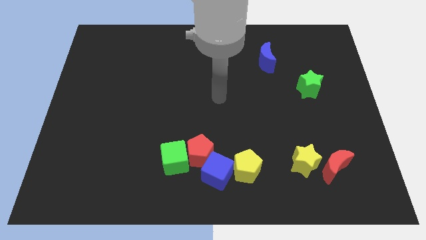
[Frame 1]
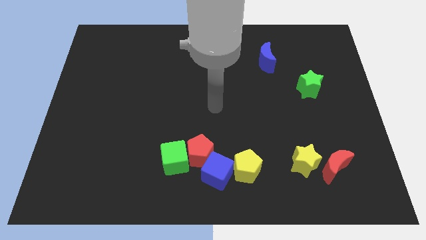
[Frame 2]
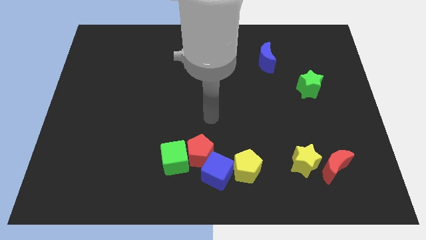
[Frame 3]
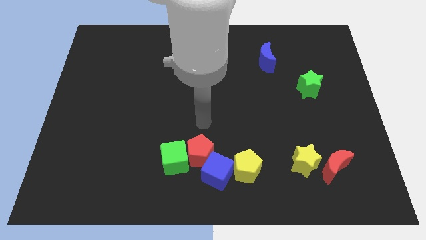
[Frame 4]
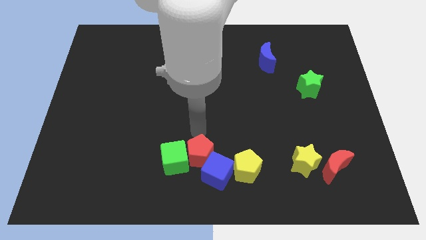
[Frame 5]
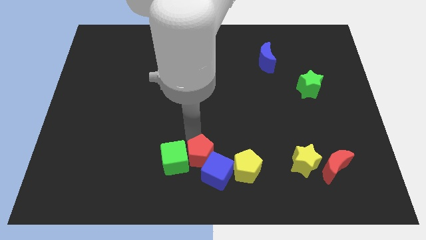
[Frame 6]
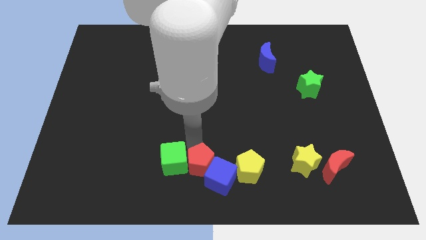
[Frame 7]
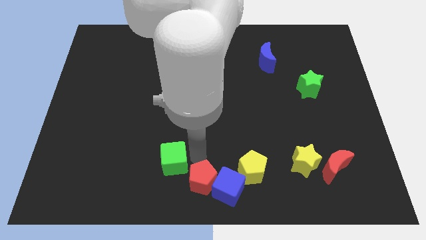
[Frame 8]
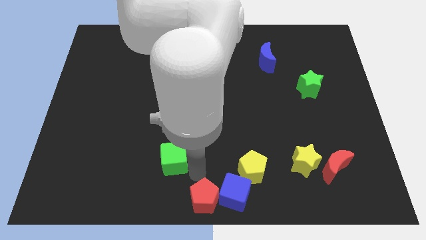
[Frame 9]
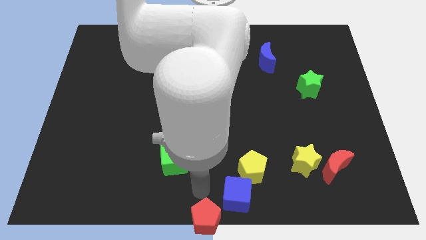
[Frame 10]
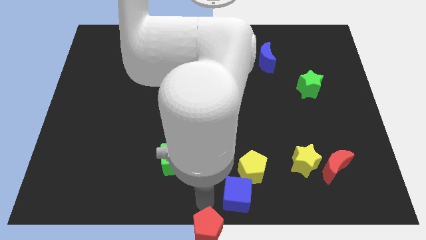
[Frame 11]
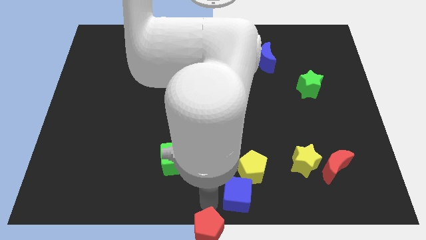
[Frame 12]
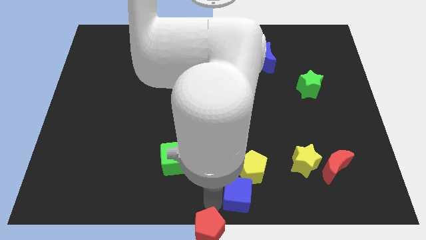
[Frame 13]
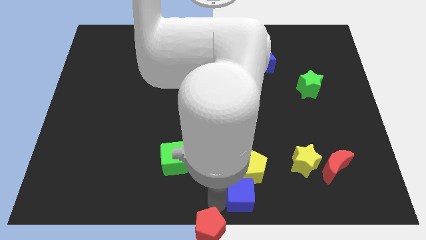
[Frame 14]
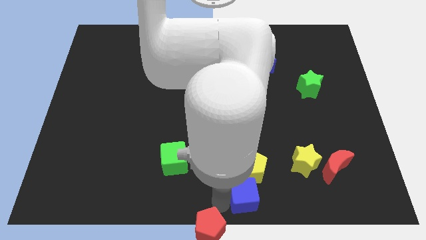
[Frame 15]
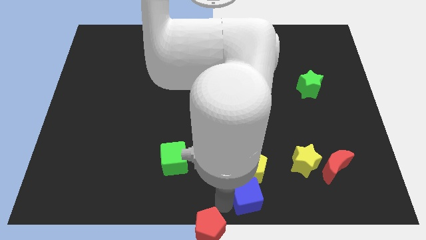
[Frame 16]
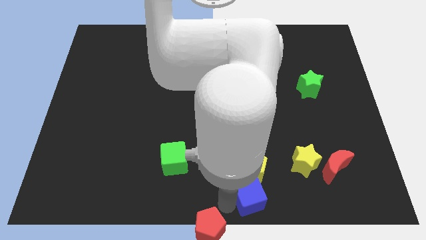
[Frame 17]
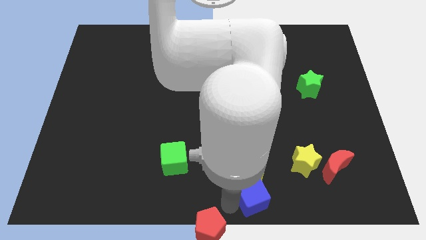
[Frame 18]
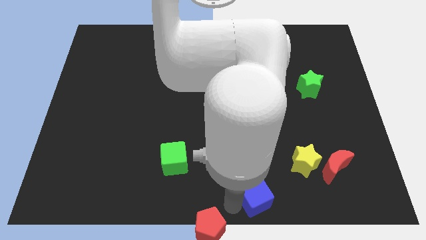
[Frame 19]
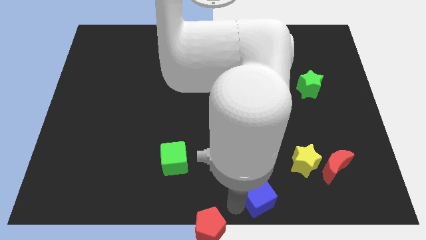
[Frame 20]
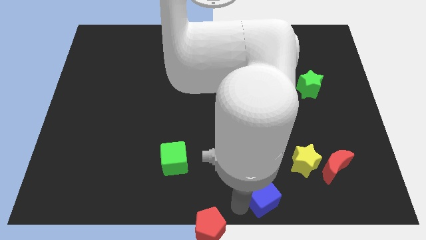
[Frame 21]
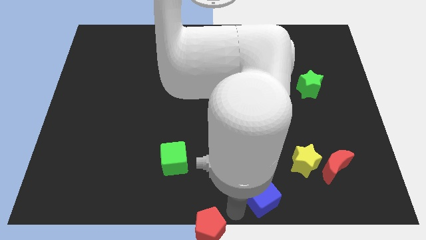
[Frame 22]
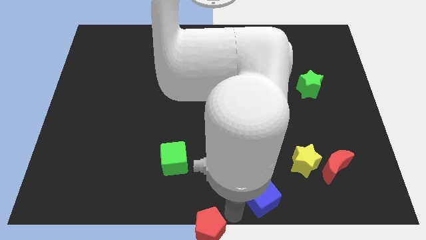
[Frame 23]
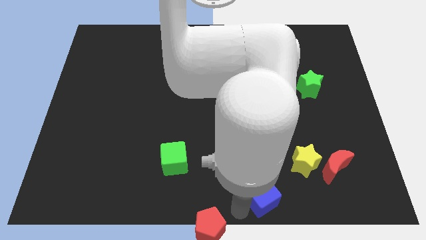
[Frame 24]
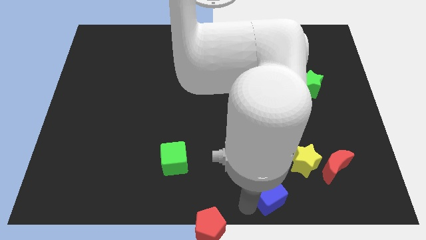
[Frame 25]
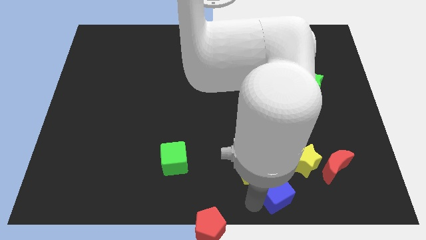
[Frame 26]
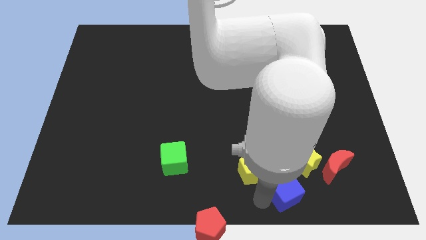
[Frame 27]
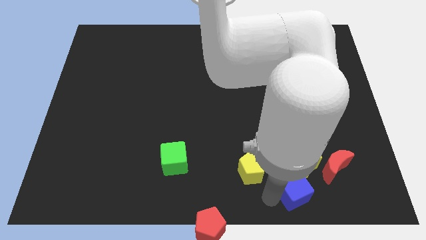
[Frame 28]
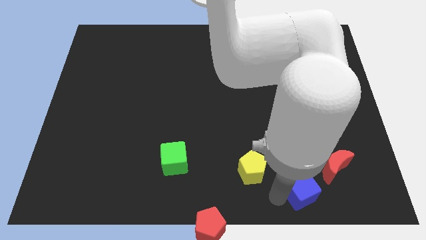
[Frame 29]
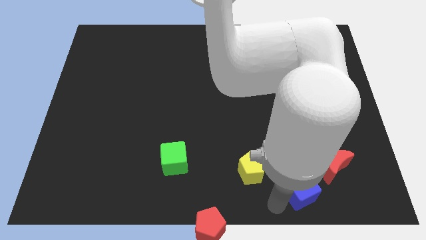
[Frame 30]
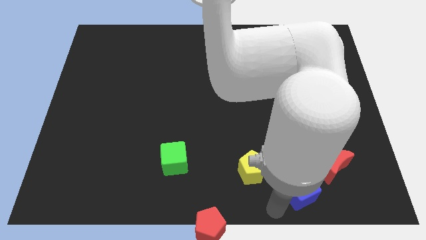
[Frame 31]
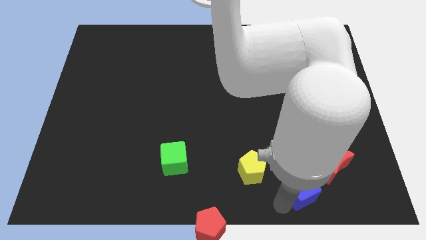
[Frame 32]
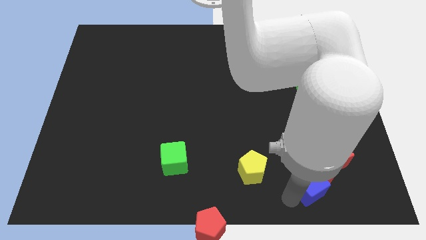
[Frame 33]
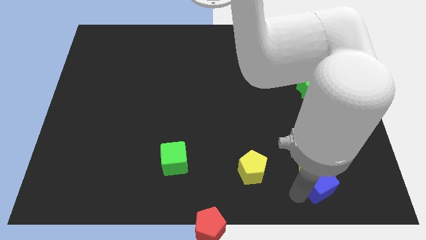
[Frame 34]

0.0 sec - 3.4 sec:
push the blue cube close to the red moon

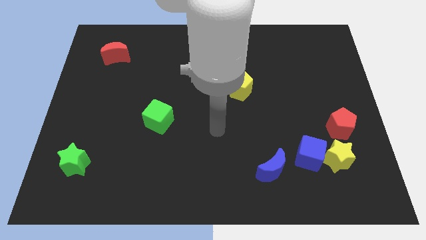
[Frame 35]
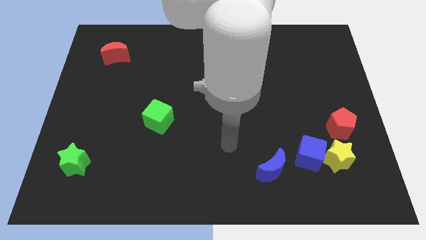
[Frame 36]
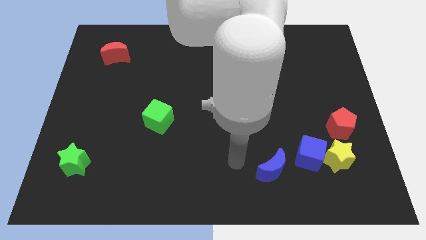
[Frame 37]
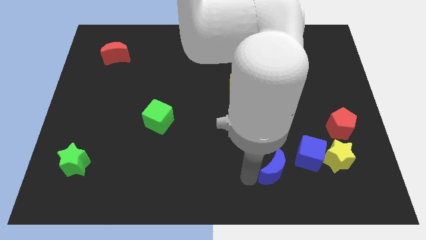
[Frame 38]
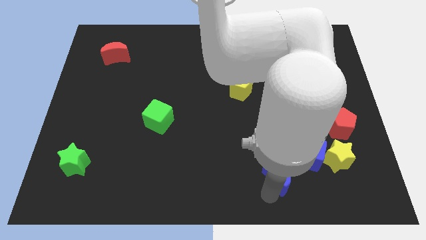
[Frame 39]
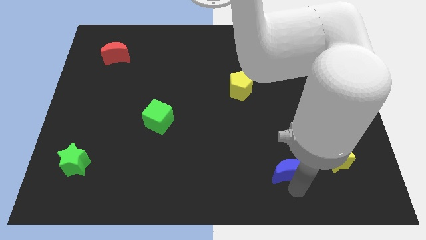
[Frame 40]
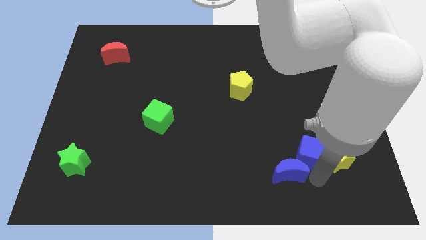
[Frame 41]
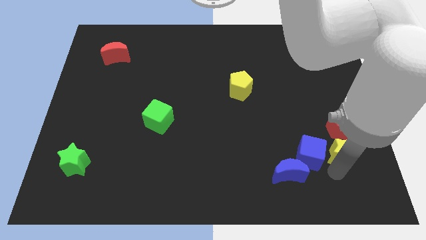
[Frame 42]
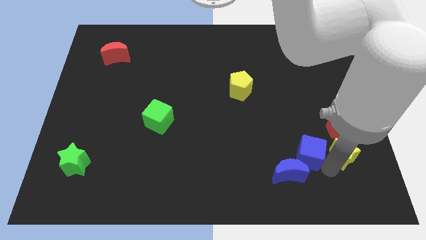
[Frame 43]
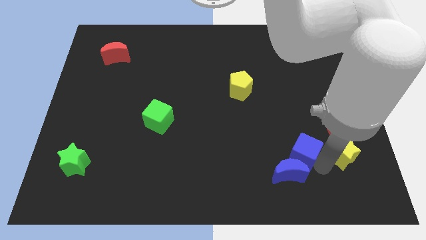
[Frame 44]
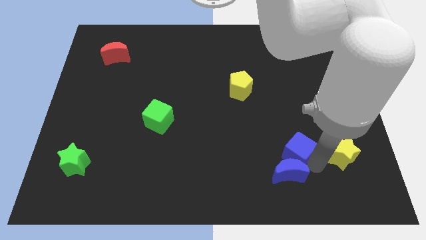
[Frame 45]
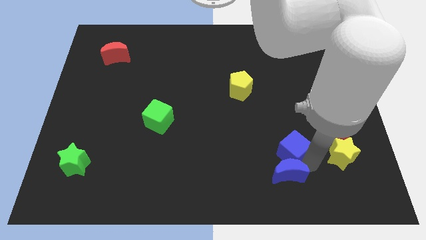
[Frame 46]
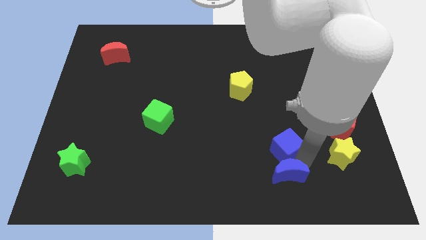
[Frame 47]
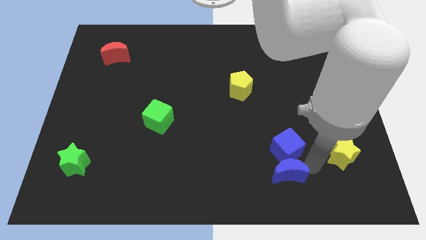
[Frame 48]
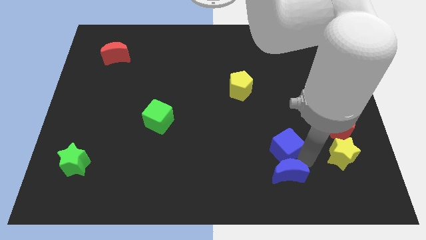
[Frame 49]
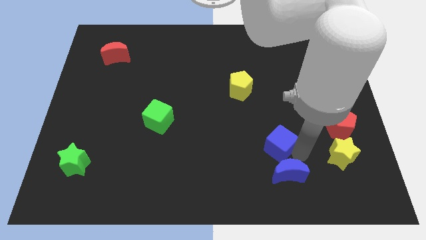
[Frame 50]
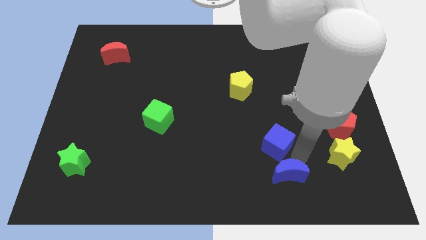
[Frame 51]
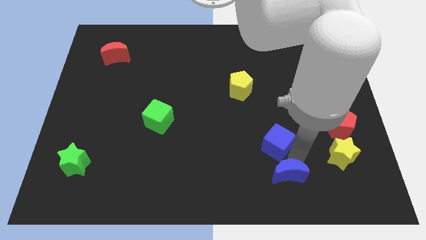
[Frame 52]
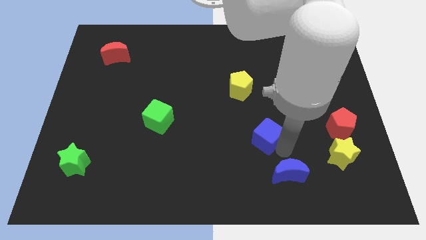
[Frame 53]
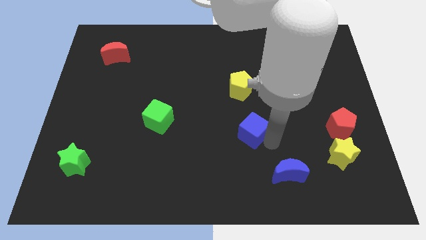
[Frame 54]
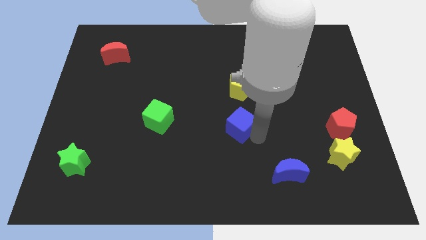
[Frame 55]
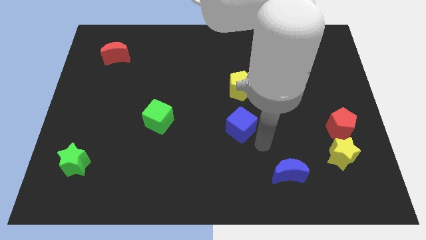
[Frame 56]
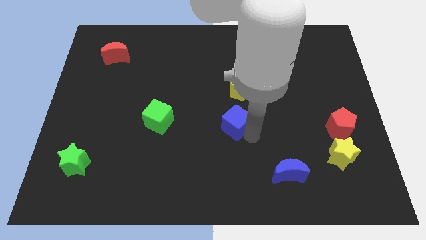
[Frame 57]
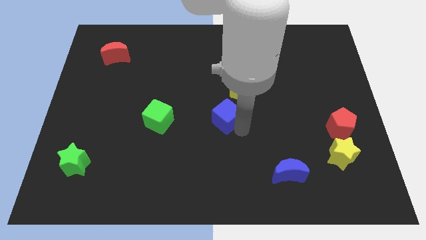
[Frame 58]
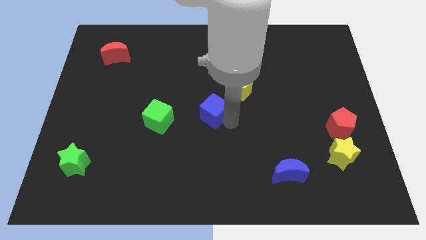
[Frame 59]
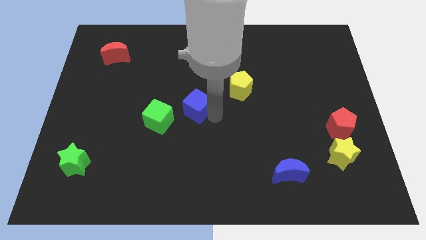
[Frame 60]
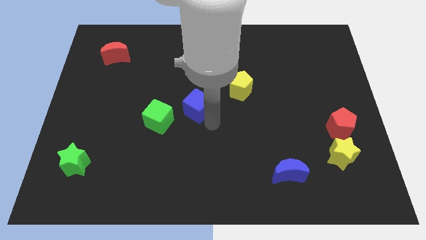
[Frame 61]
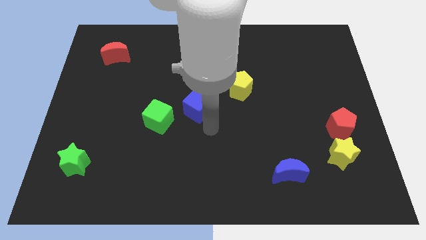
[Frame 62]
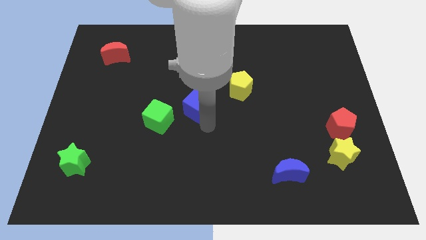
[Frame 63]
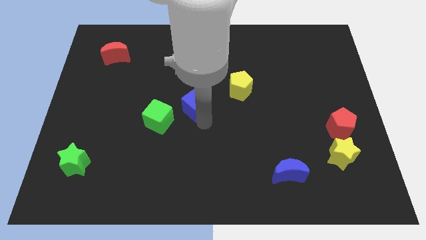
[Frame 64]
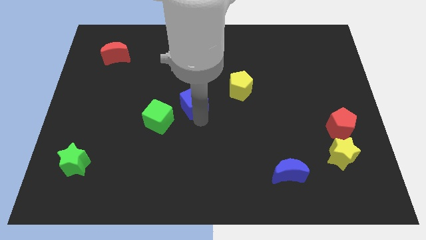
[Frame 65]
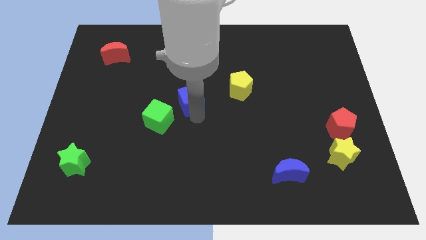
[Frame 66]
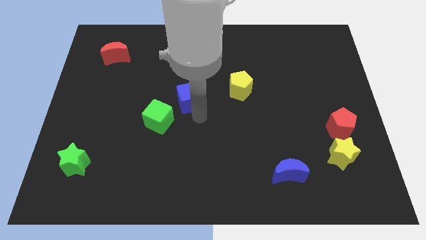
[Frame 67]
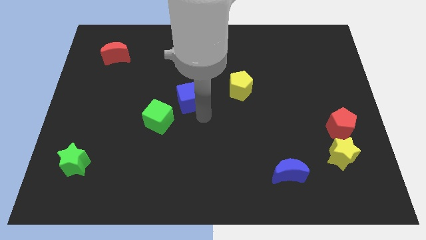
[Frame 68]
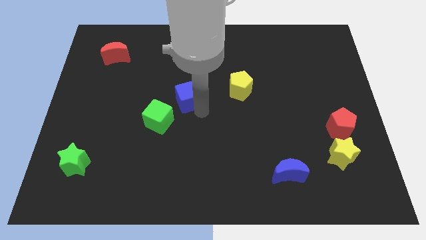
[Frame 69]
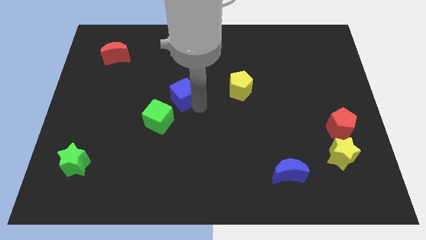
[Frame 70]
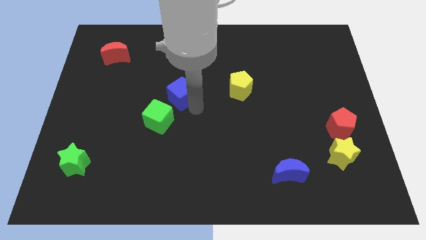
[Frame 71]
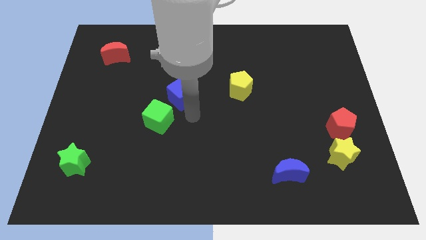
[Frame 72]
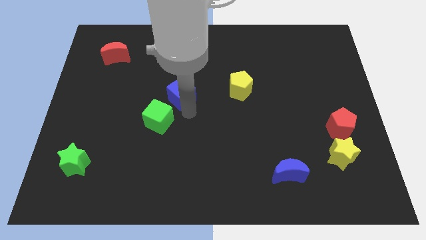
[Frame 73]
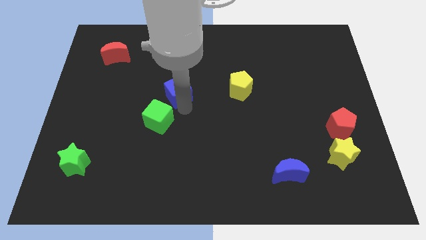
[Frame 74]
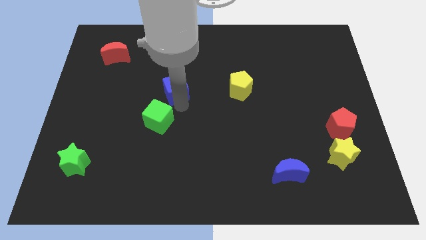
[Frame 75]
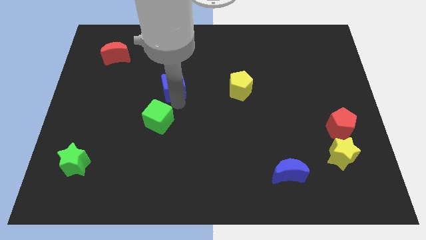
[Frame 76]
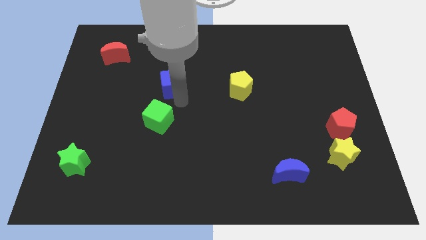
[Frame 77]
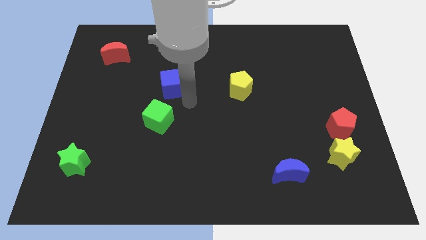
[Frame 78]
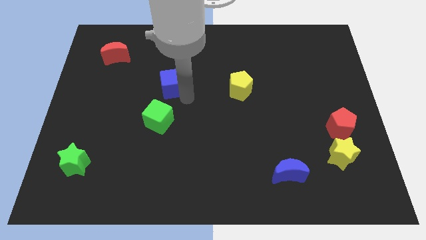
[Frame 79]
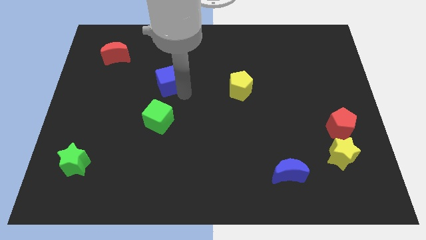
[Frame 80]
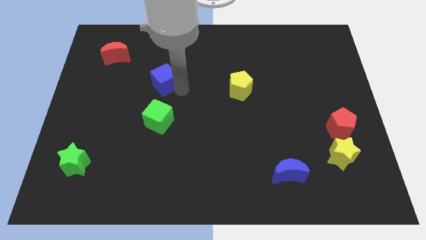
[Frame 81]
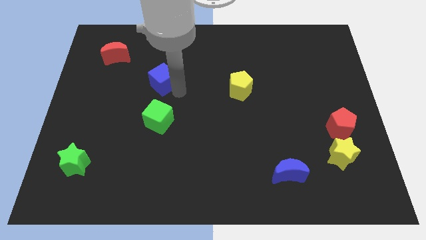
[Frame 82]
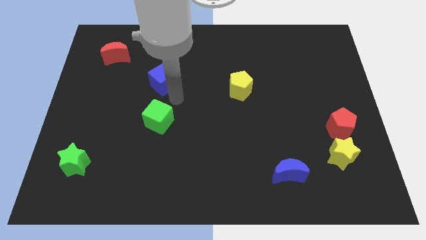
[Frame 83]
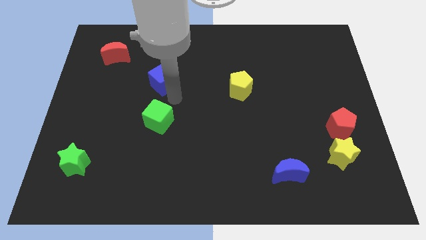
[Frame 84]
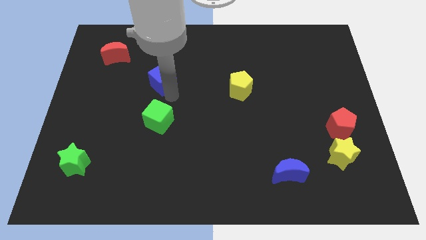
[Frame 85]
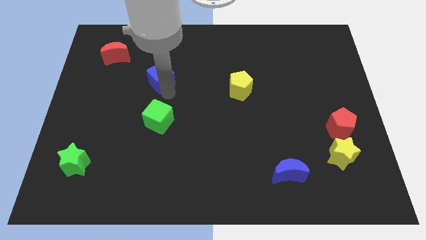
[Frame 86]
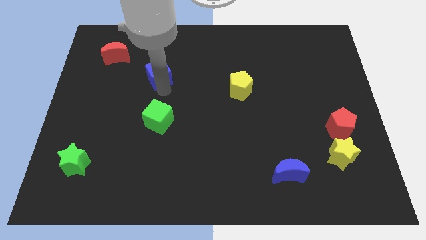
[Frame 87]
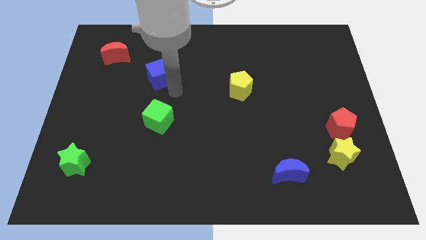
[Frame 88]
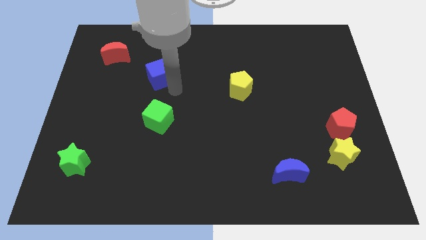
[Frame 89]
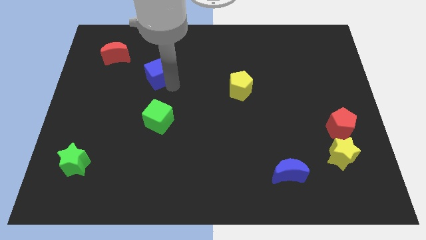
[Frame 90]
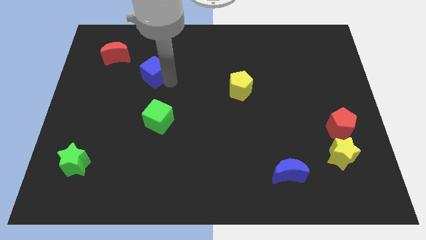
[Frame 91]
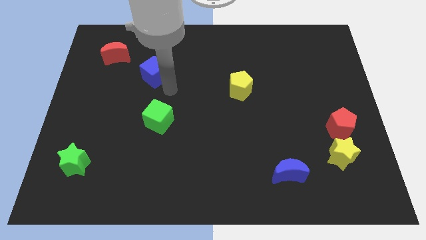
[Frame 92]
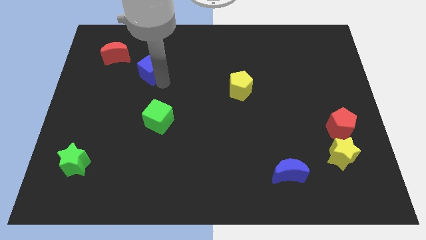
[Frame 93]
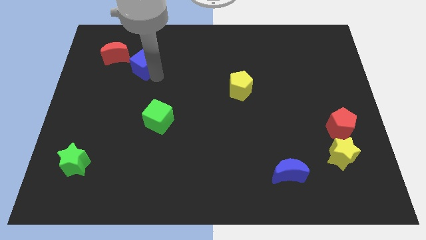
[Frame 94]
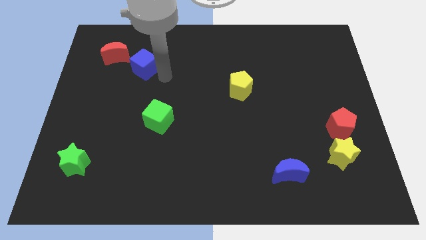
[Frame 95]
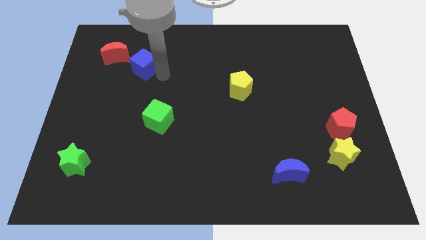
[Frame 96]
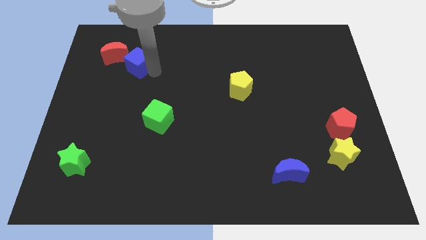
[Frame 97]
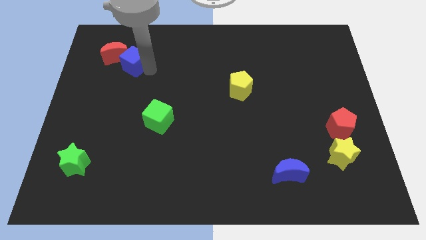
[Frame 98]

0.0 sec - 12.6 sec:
slide the blue cube towards the red moon
